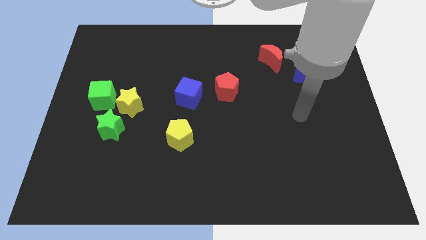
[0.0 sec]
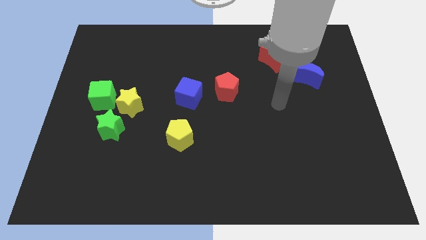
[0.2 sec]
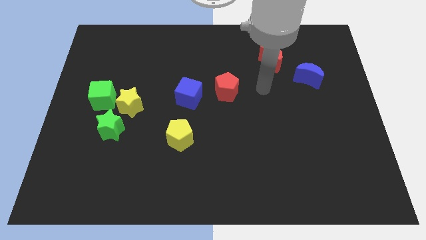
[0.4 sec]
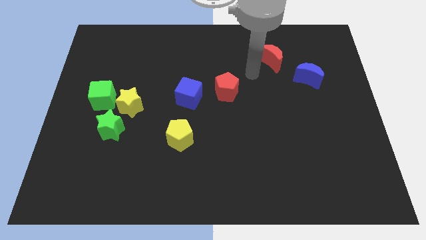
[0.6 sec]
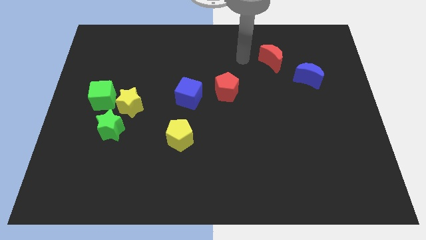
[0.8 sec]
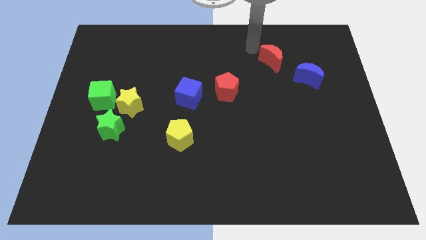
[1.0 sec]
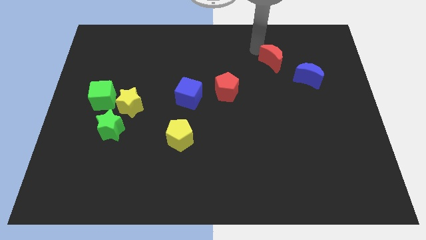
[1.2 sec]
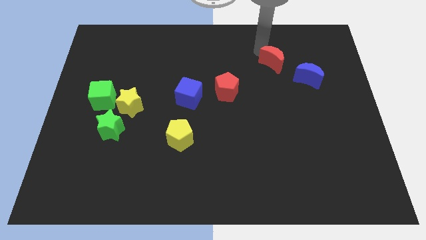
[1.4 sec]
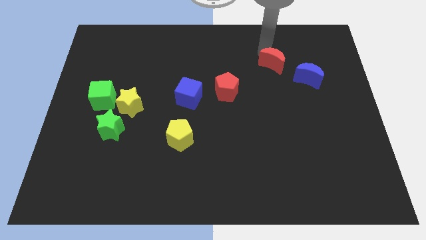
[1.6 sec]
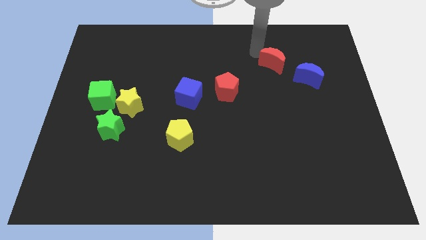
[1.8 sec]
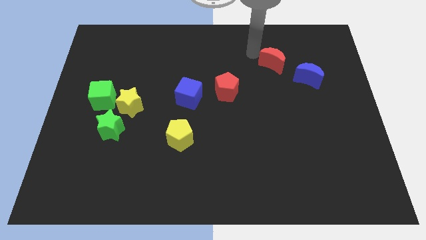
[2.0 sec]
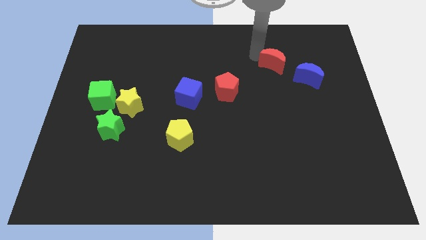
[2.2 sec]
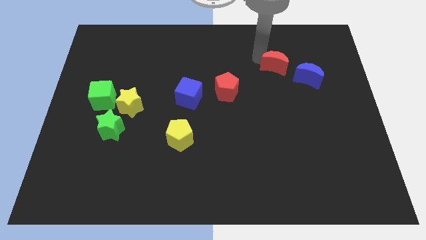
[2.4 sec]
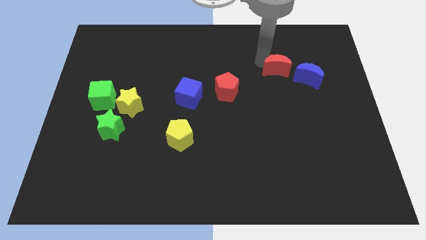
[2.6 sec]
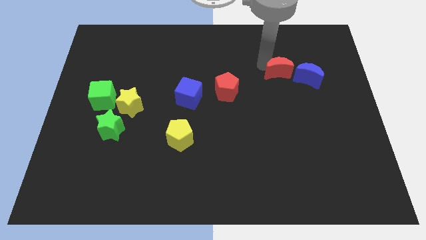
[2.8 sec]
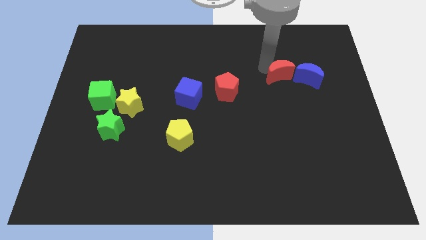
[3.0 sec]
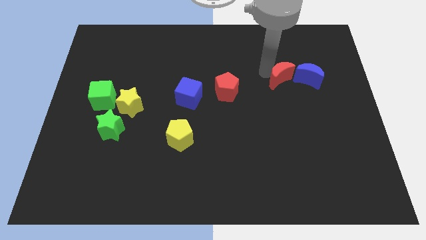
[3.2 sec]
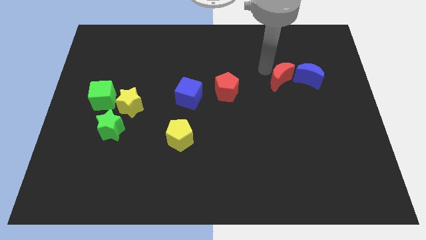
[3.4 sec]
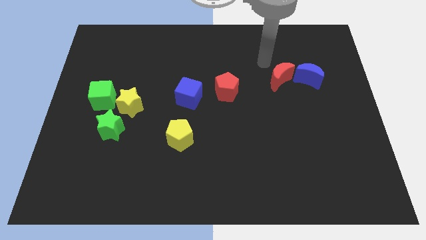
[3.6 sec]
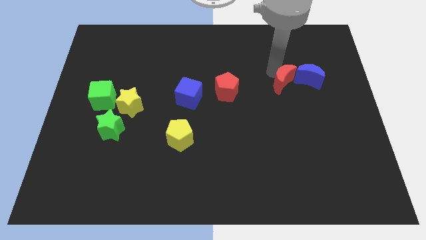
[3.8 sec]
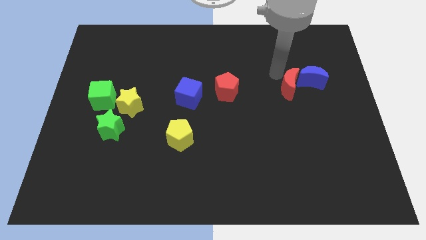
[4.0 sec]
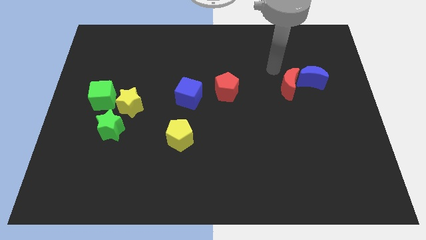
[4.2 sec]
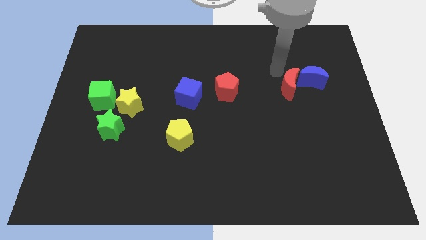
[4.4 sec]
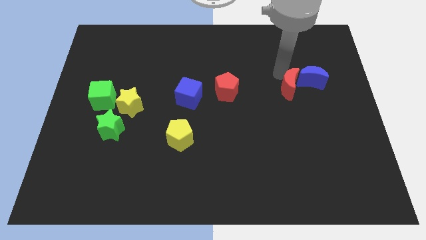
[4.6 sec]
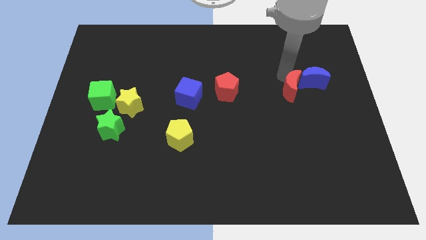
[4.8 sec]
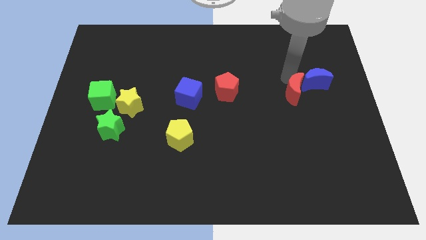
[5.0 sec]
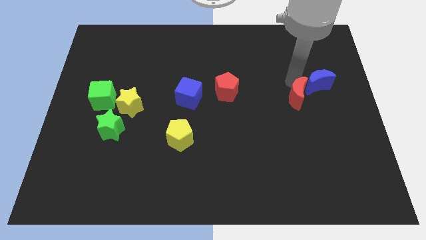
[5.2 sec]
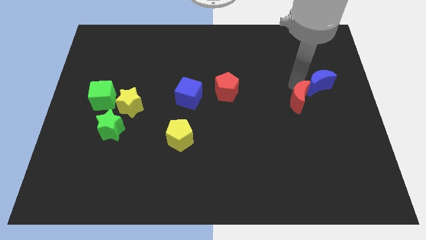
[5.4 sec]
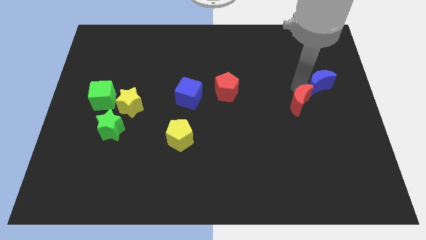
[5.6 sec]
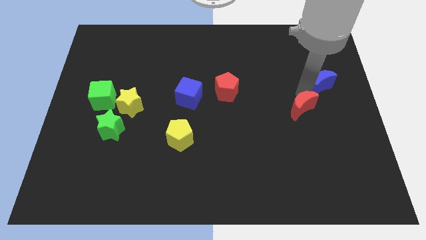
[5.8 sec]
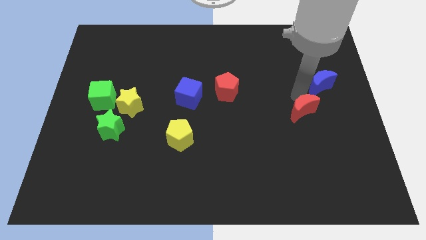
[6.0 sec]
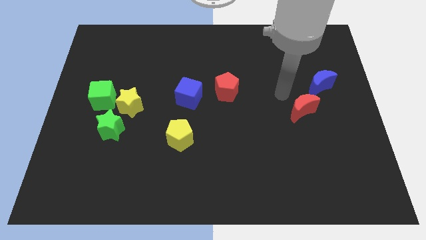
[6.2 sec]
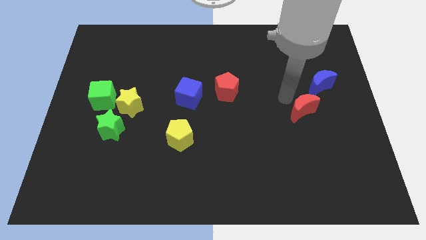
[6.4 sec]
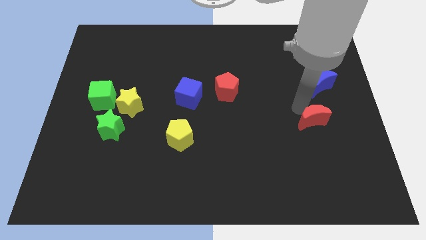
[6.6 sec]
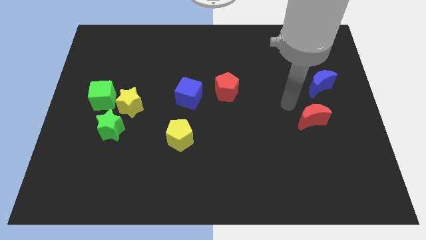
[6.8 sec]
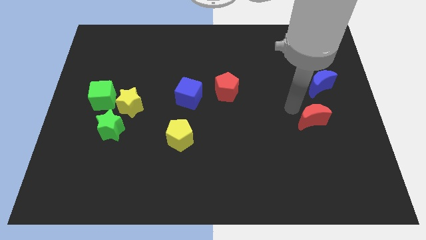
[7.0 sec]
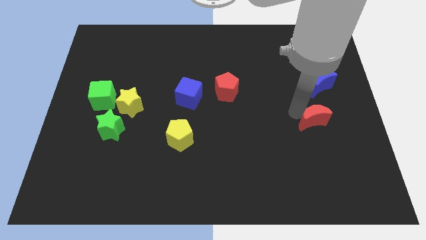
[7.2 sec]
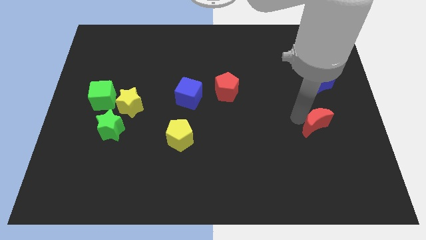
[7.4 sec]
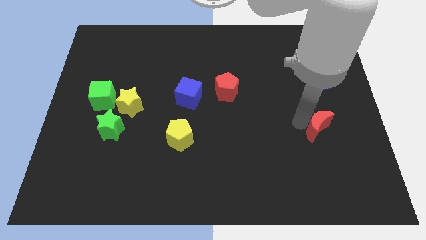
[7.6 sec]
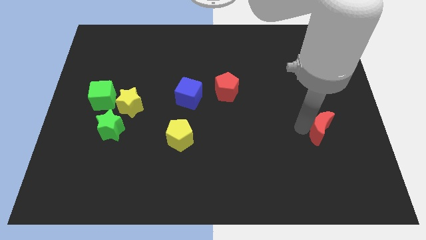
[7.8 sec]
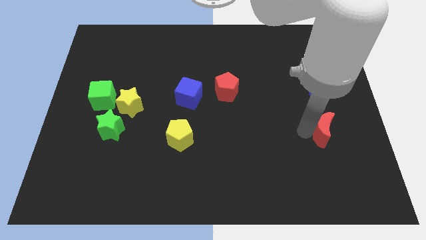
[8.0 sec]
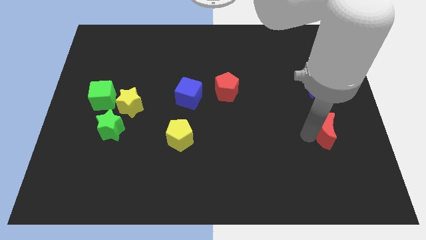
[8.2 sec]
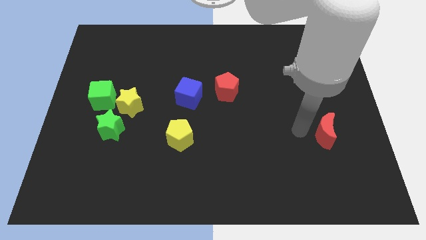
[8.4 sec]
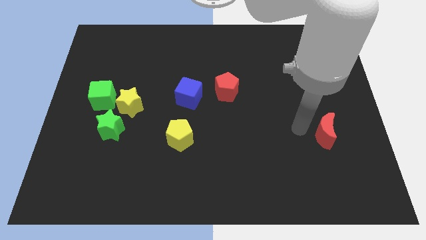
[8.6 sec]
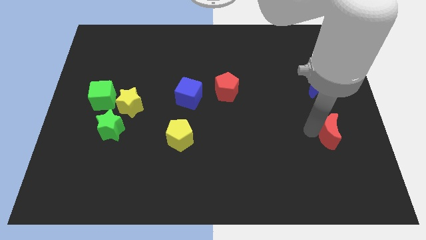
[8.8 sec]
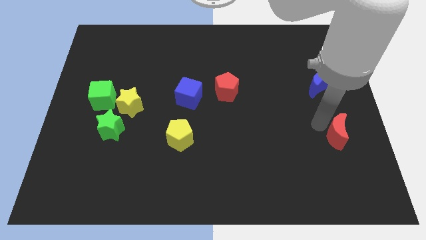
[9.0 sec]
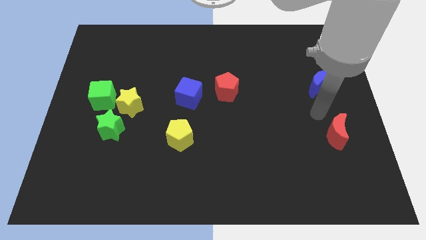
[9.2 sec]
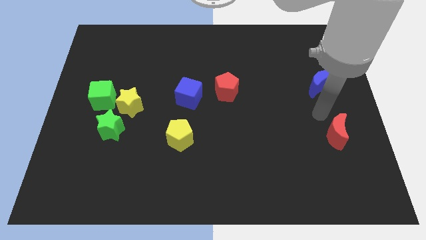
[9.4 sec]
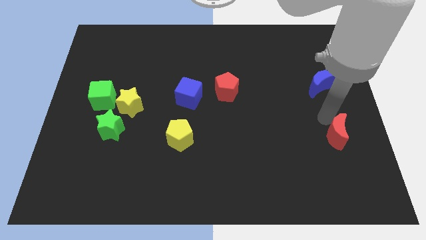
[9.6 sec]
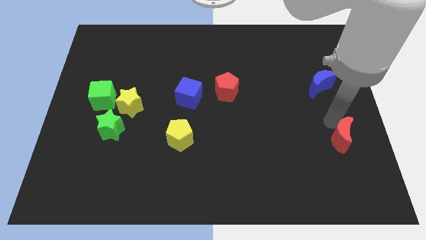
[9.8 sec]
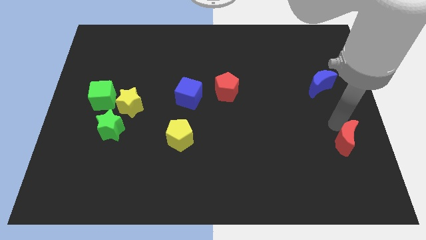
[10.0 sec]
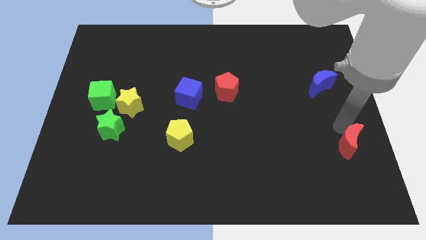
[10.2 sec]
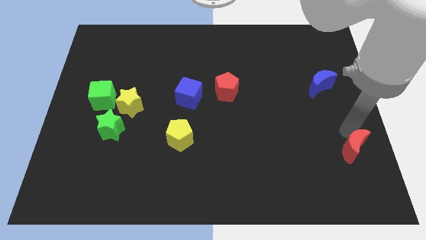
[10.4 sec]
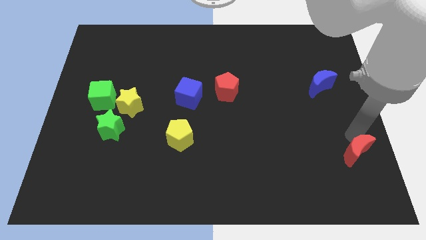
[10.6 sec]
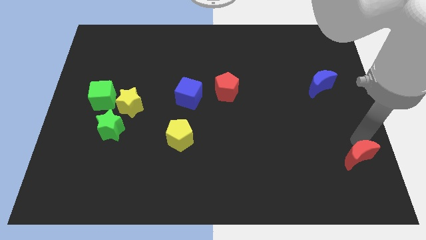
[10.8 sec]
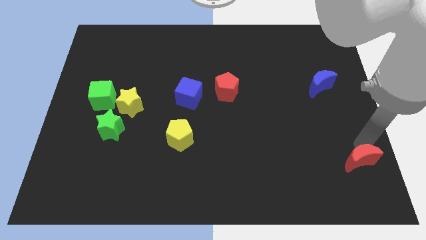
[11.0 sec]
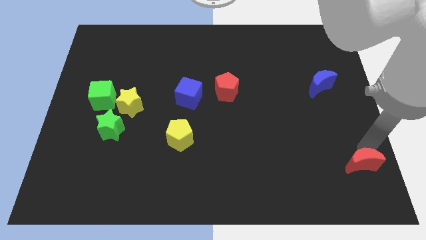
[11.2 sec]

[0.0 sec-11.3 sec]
slide the red moon to the bottom right of the board

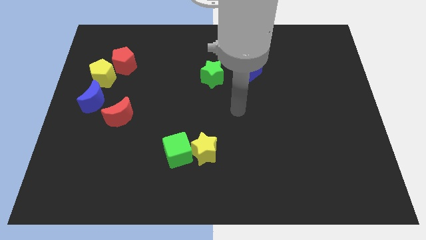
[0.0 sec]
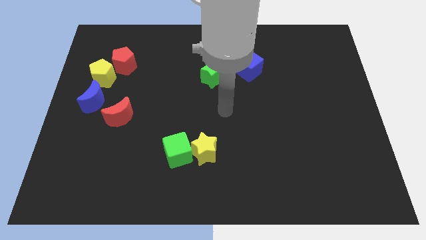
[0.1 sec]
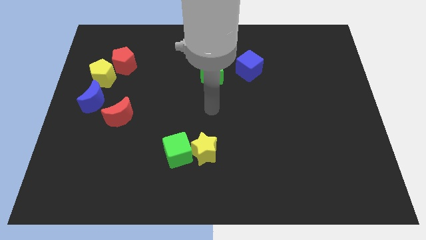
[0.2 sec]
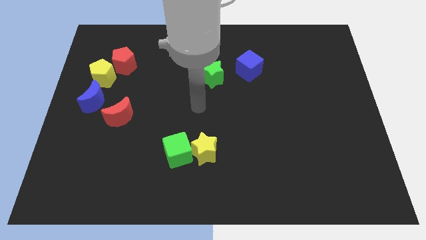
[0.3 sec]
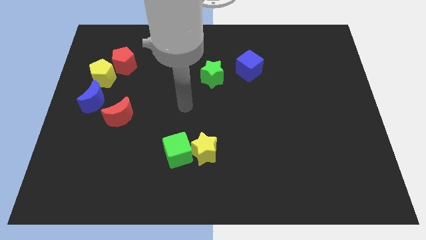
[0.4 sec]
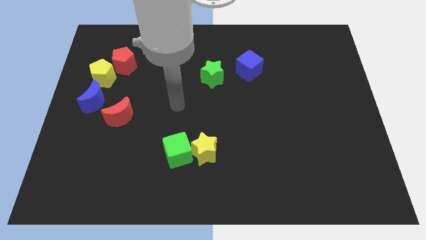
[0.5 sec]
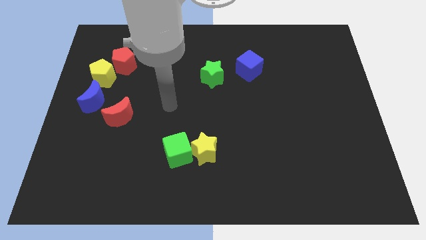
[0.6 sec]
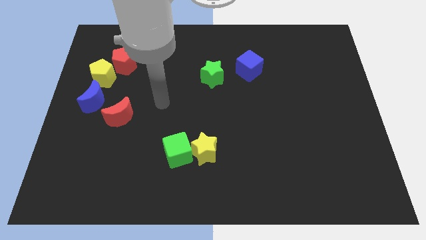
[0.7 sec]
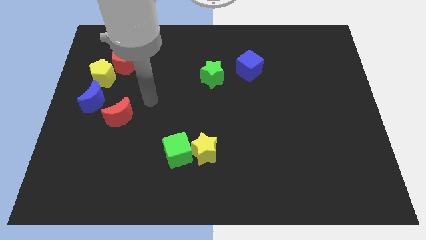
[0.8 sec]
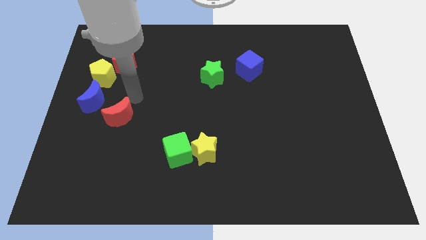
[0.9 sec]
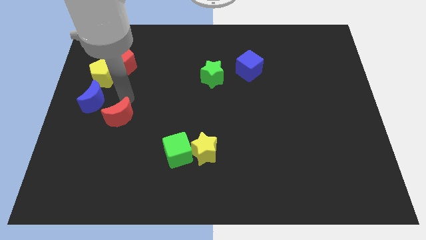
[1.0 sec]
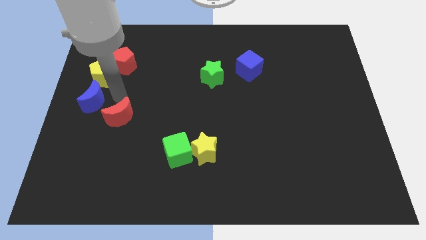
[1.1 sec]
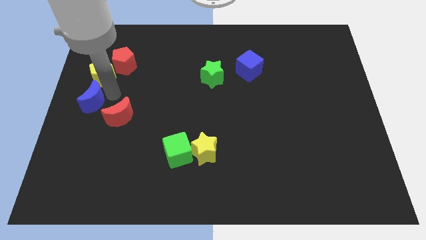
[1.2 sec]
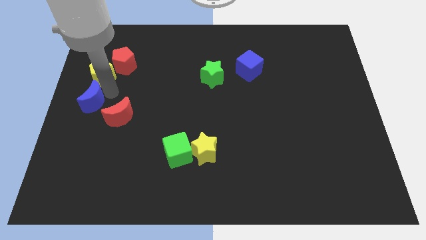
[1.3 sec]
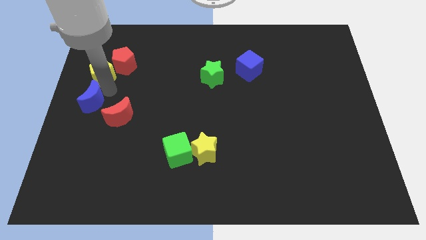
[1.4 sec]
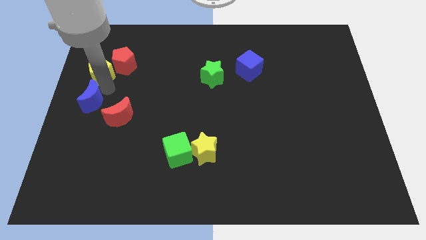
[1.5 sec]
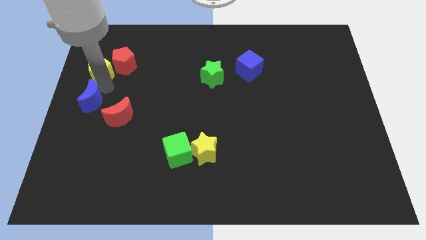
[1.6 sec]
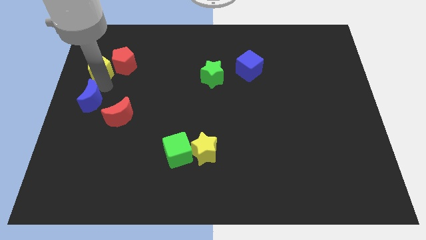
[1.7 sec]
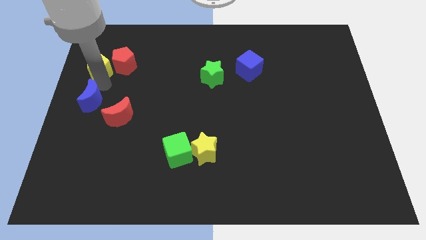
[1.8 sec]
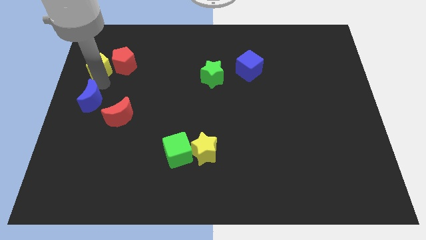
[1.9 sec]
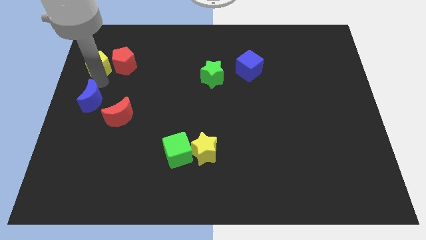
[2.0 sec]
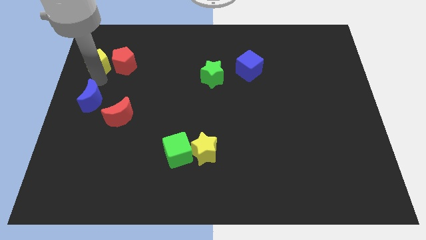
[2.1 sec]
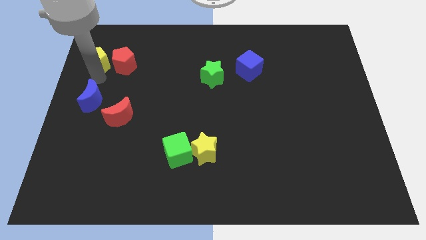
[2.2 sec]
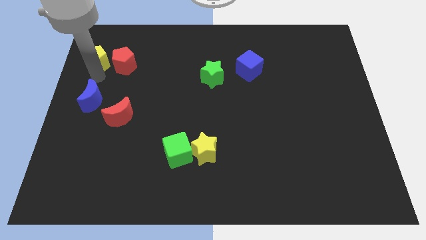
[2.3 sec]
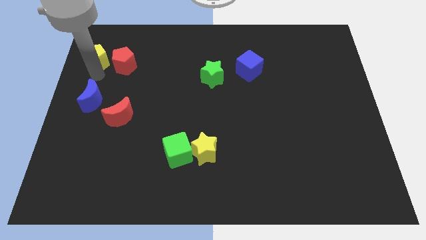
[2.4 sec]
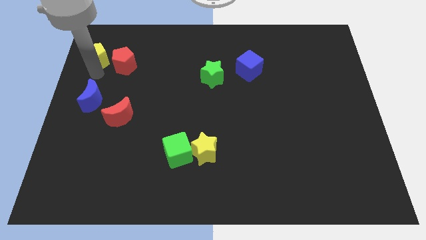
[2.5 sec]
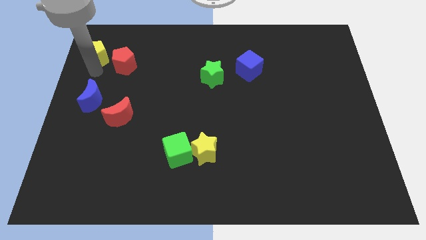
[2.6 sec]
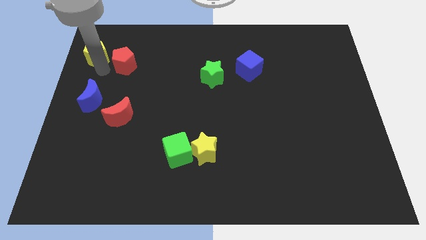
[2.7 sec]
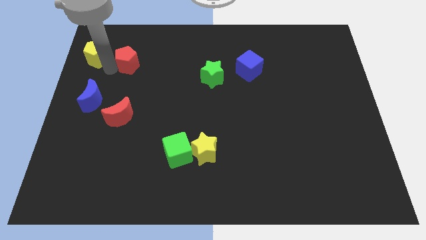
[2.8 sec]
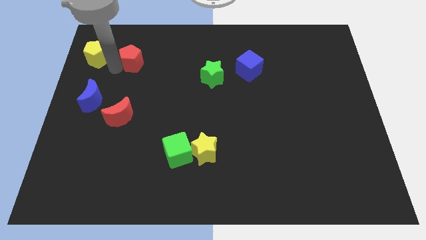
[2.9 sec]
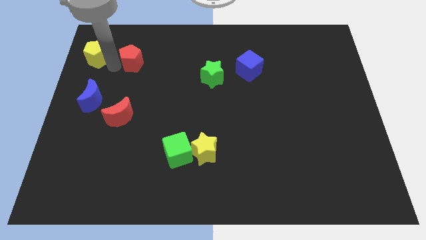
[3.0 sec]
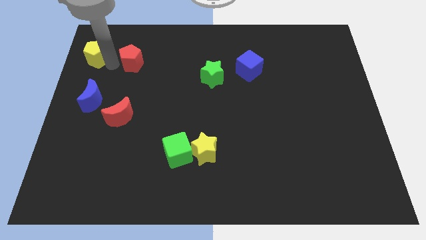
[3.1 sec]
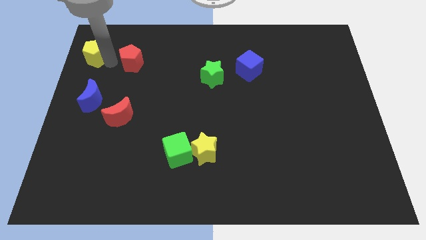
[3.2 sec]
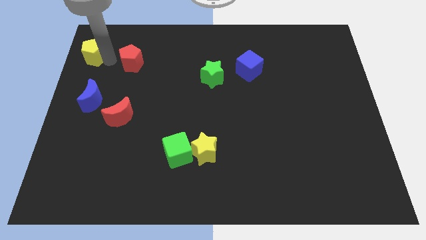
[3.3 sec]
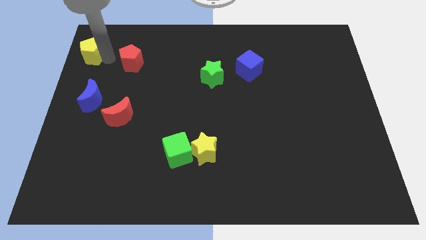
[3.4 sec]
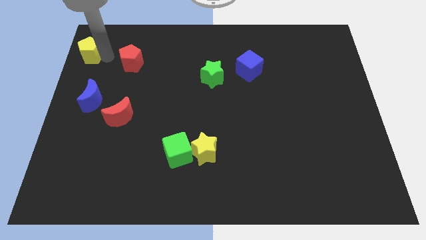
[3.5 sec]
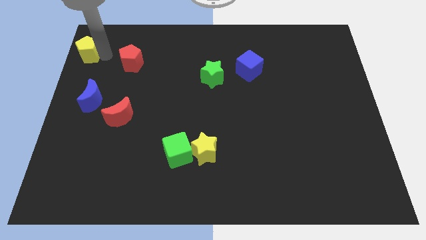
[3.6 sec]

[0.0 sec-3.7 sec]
slide the yellow pentagon to the top left of the board
